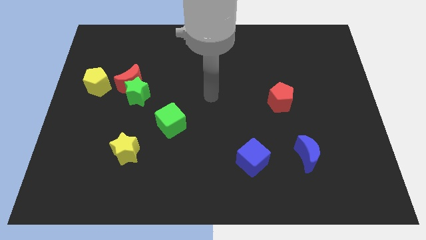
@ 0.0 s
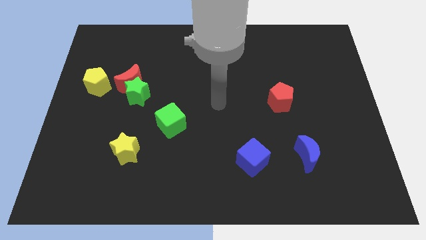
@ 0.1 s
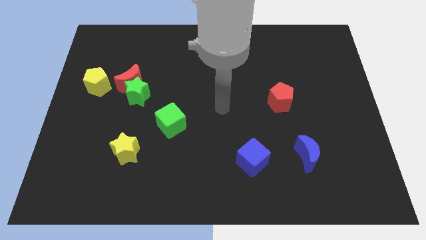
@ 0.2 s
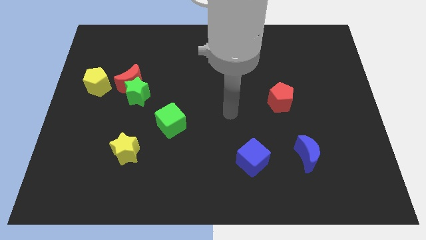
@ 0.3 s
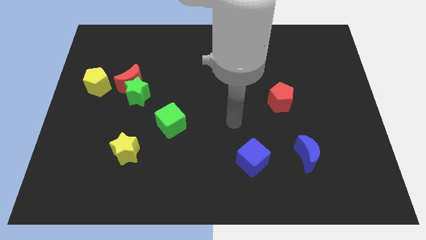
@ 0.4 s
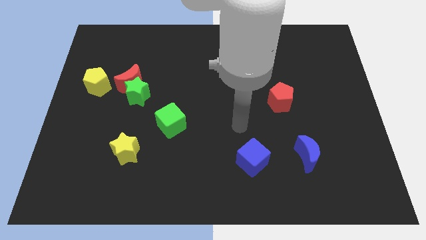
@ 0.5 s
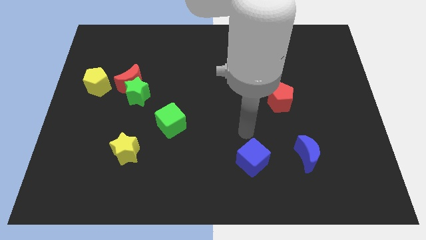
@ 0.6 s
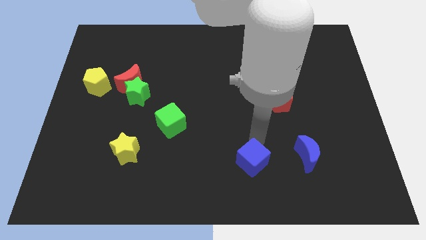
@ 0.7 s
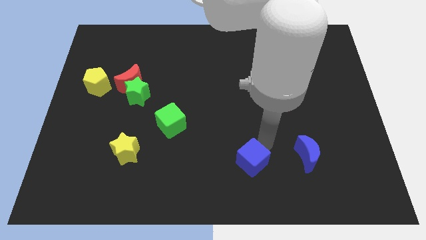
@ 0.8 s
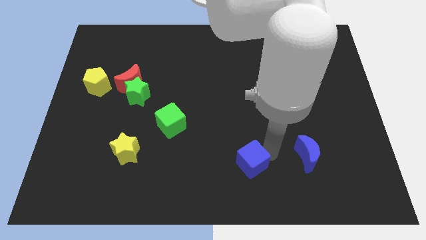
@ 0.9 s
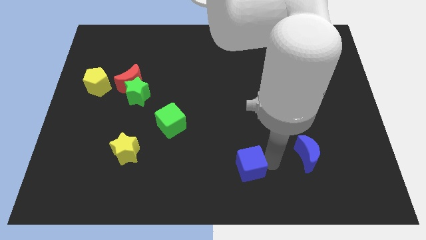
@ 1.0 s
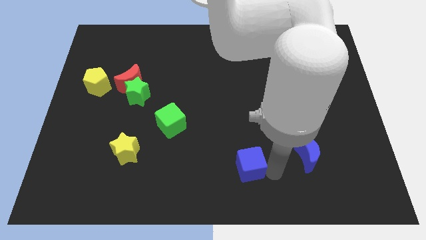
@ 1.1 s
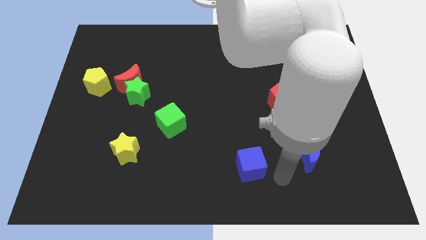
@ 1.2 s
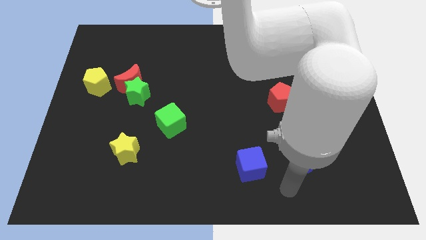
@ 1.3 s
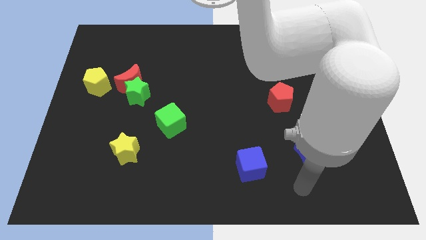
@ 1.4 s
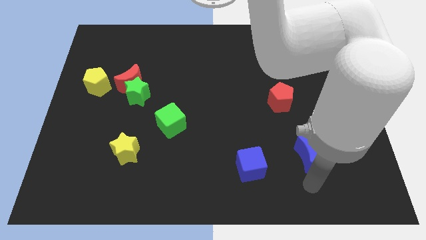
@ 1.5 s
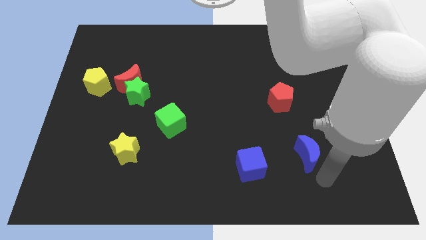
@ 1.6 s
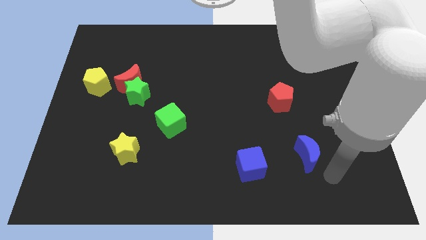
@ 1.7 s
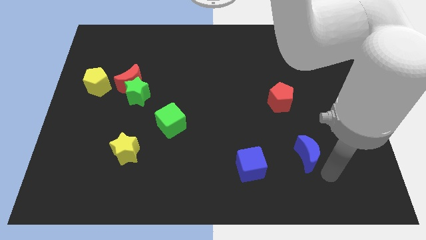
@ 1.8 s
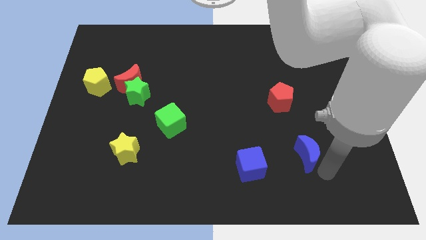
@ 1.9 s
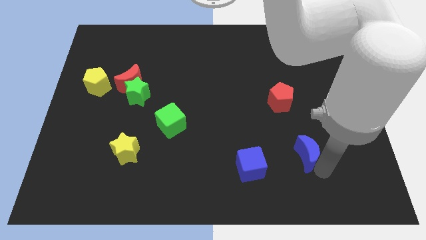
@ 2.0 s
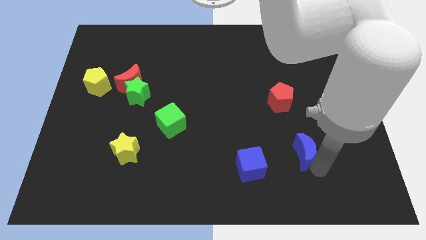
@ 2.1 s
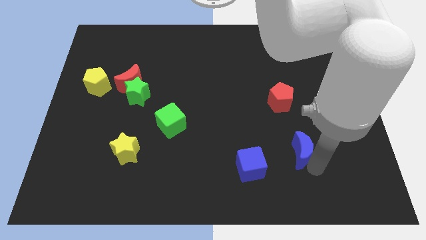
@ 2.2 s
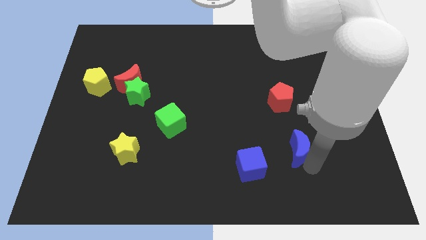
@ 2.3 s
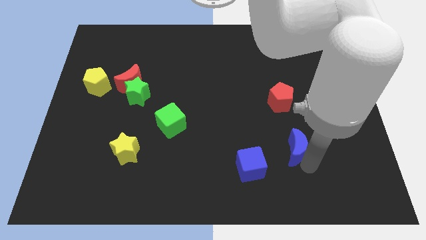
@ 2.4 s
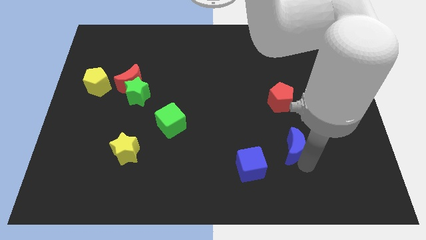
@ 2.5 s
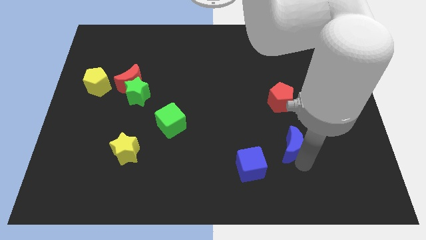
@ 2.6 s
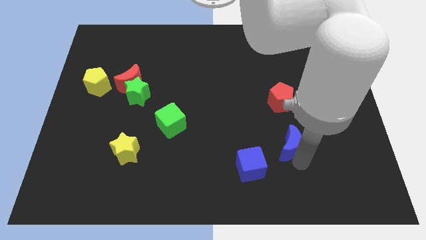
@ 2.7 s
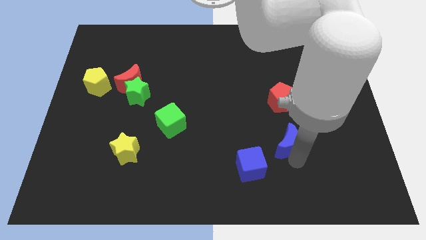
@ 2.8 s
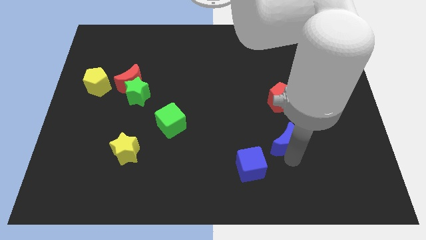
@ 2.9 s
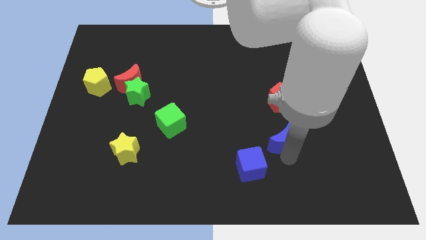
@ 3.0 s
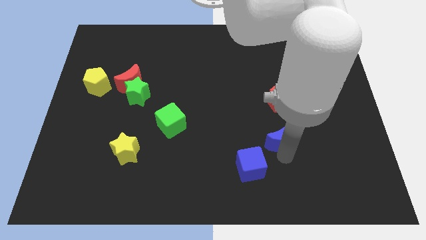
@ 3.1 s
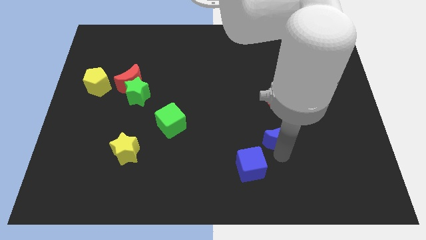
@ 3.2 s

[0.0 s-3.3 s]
slightly slide the blue moon diagonally upwards and left

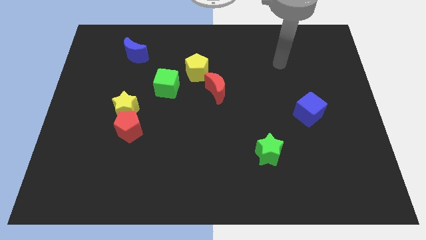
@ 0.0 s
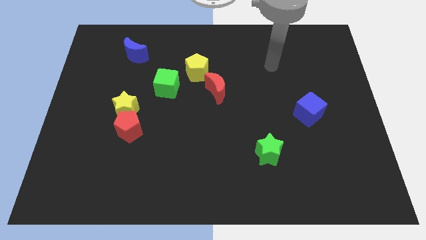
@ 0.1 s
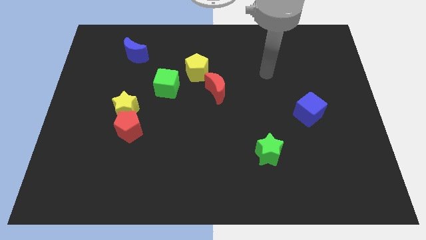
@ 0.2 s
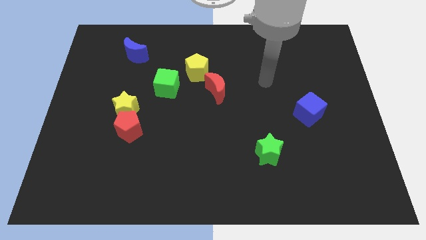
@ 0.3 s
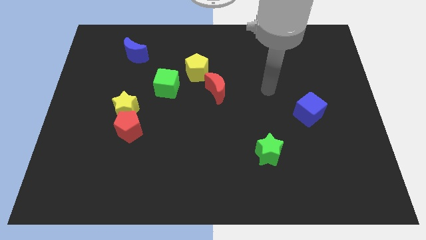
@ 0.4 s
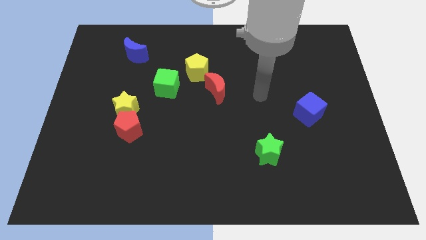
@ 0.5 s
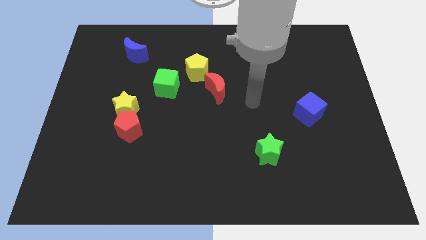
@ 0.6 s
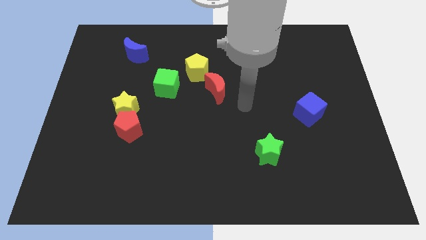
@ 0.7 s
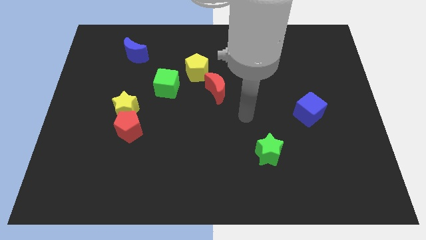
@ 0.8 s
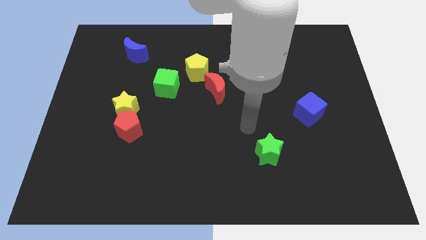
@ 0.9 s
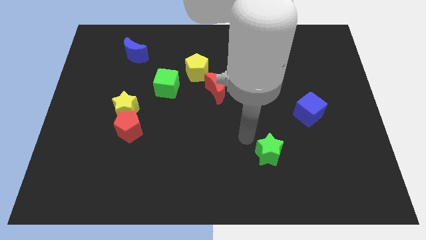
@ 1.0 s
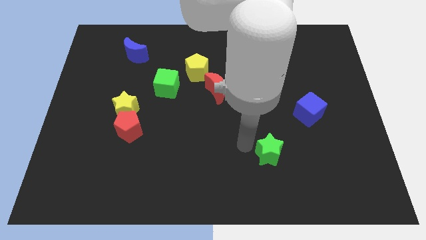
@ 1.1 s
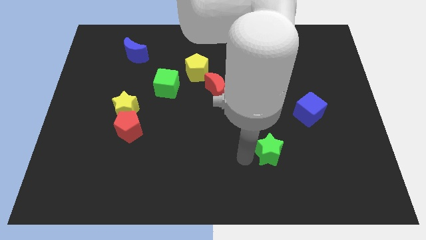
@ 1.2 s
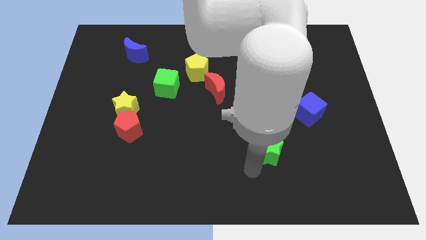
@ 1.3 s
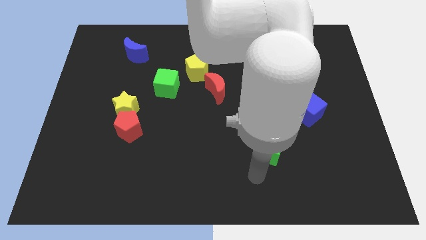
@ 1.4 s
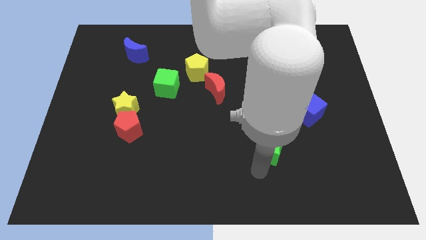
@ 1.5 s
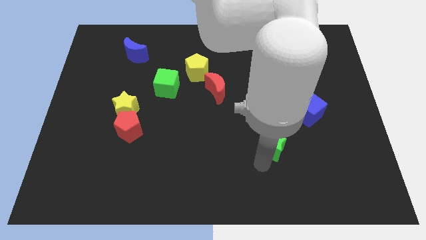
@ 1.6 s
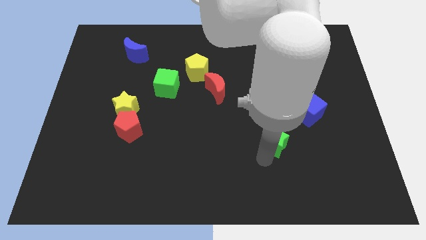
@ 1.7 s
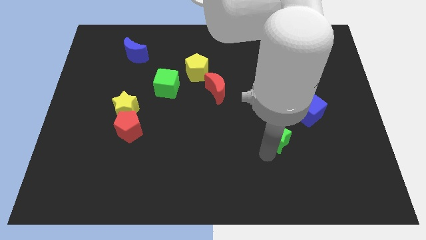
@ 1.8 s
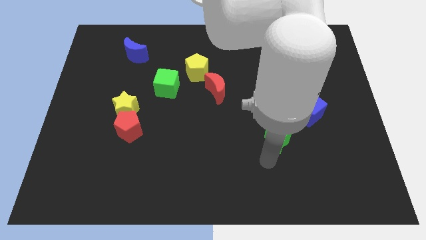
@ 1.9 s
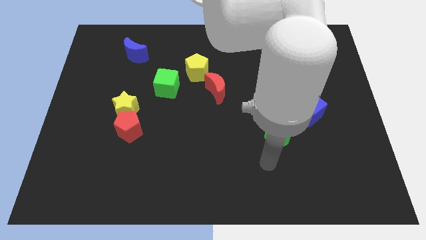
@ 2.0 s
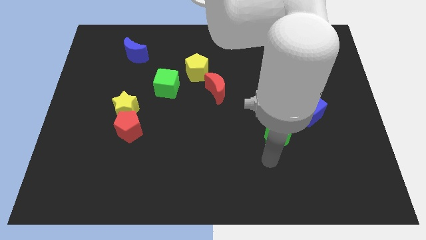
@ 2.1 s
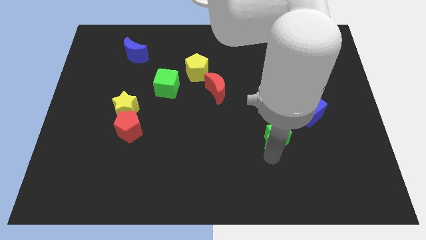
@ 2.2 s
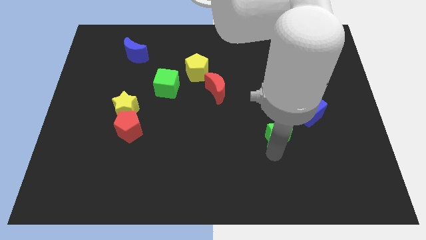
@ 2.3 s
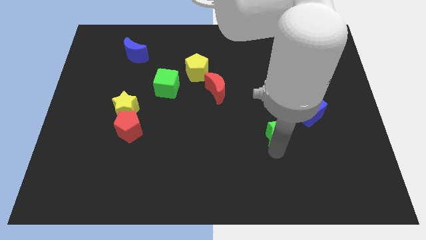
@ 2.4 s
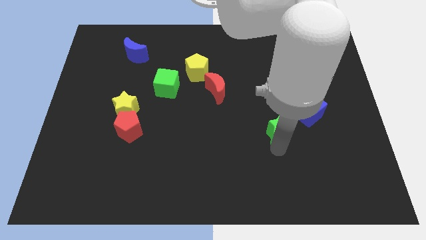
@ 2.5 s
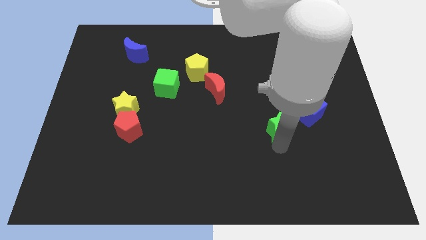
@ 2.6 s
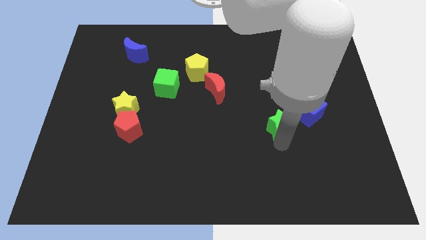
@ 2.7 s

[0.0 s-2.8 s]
slightly move the green star diagonally up and right

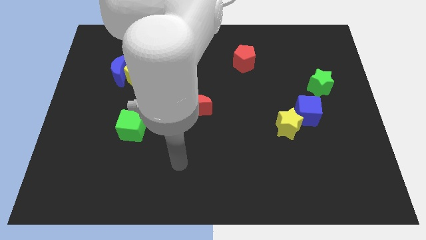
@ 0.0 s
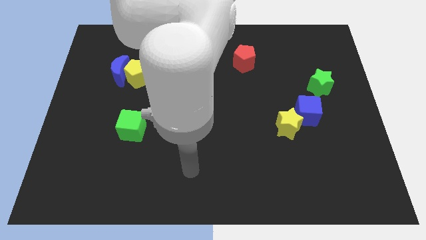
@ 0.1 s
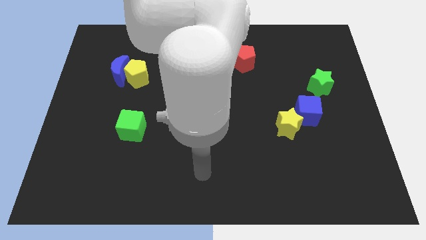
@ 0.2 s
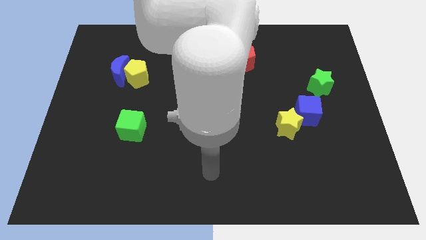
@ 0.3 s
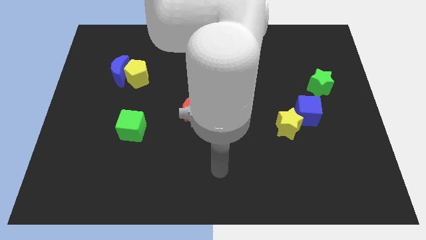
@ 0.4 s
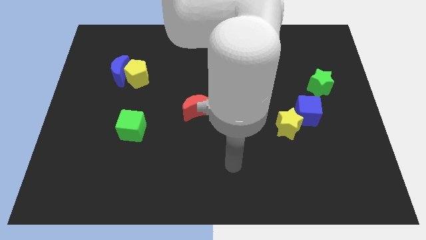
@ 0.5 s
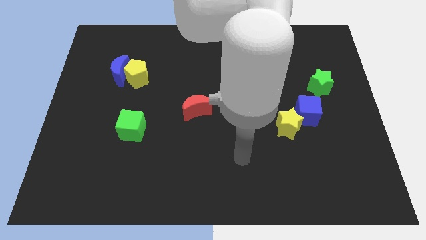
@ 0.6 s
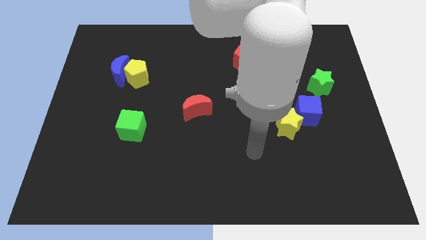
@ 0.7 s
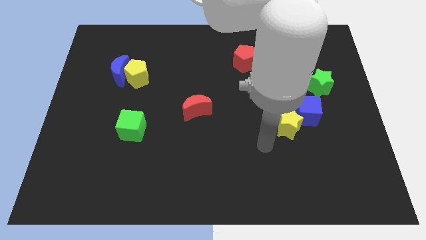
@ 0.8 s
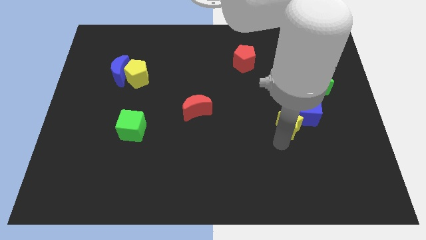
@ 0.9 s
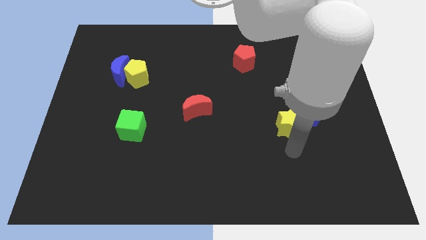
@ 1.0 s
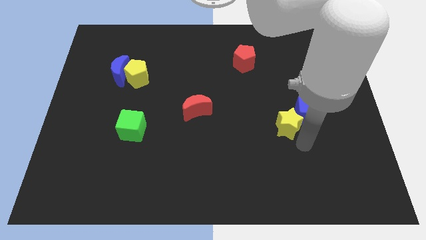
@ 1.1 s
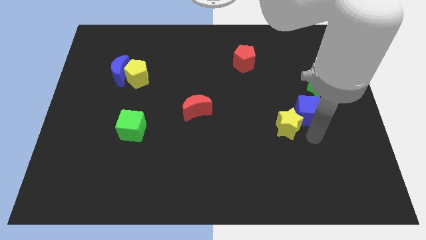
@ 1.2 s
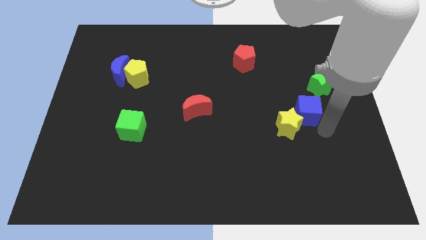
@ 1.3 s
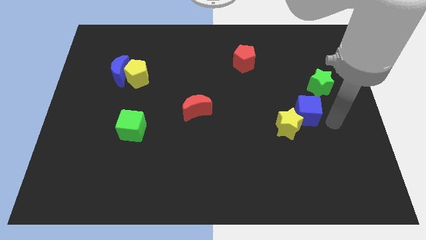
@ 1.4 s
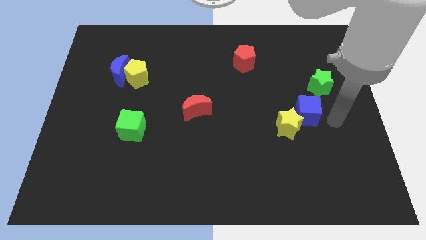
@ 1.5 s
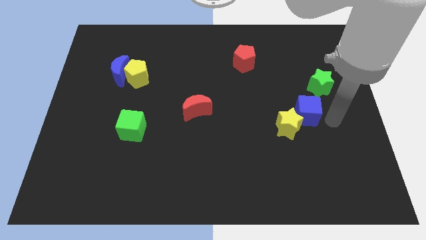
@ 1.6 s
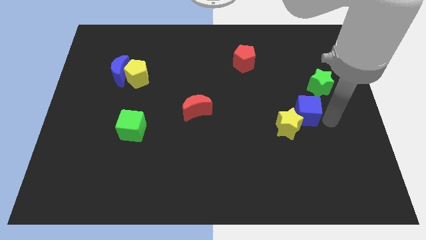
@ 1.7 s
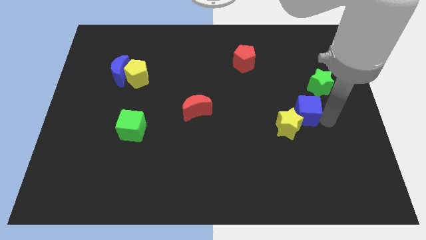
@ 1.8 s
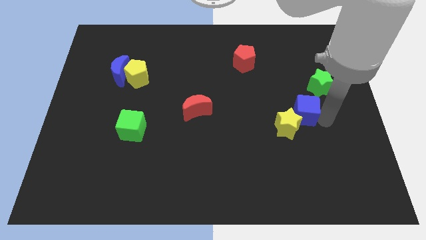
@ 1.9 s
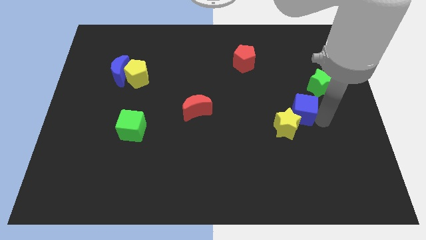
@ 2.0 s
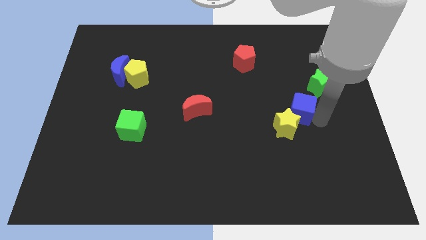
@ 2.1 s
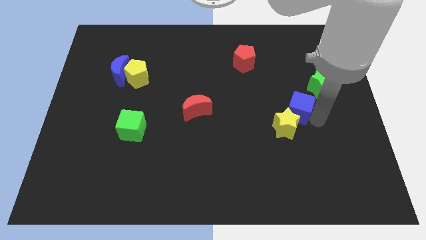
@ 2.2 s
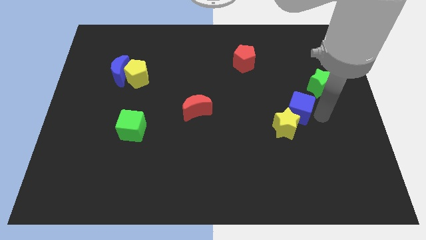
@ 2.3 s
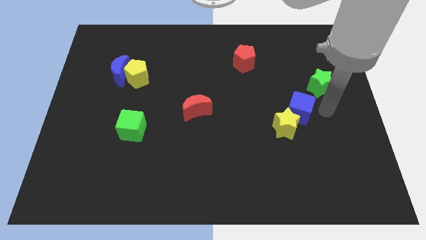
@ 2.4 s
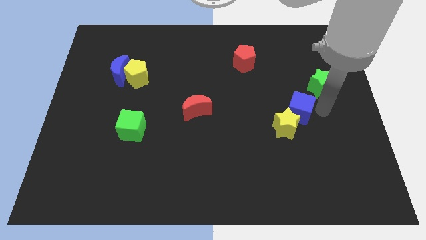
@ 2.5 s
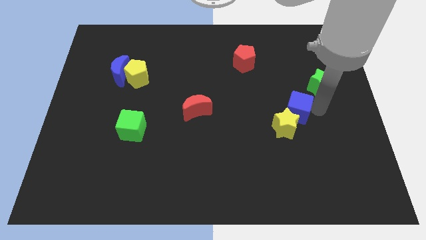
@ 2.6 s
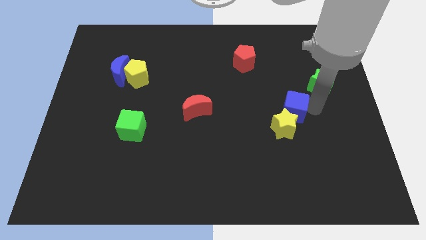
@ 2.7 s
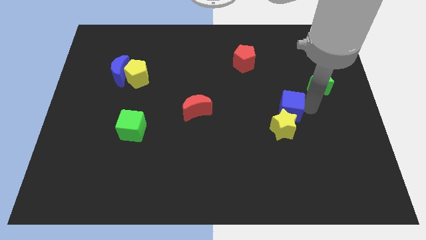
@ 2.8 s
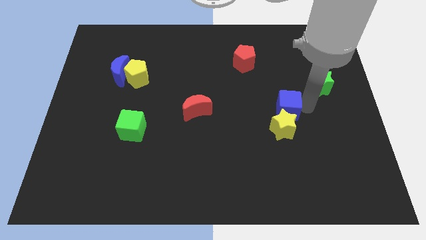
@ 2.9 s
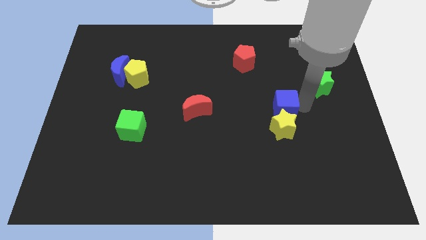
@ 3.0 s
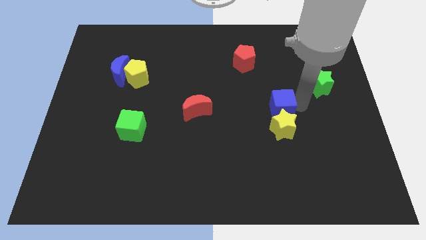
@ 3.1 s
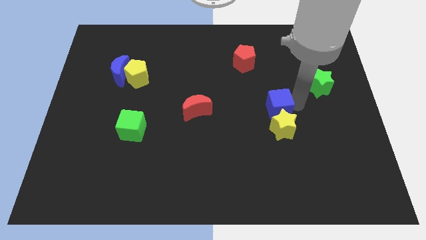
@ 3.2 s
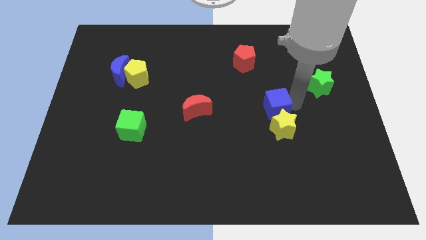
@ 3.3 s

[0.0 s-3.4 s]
slightly move the blue cube to the left
